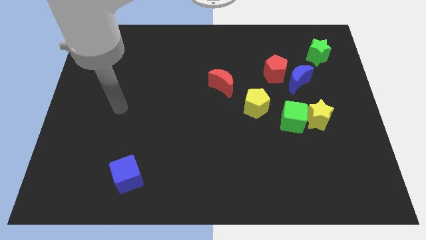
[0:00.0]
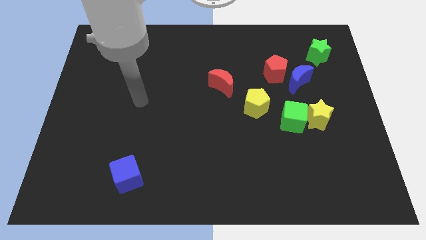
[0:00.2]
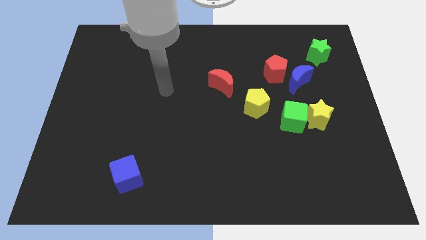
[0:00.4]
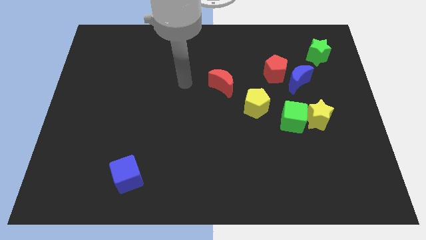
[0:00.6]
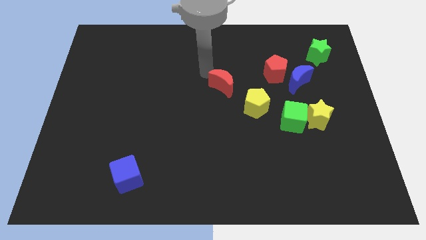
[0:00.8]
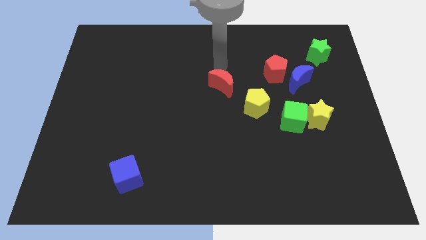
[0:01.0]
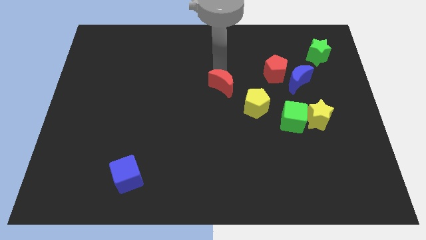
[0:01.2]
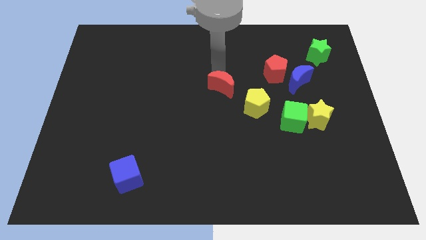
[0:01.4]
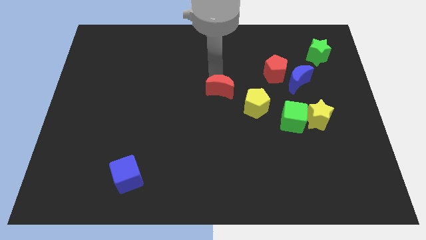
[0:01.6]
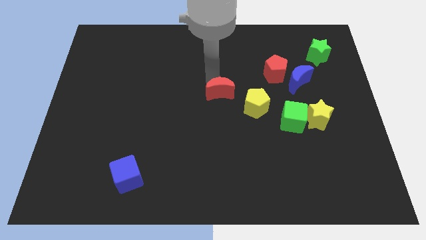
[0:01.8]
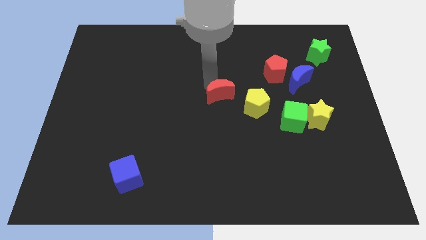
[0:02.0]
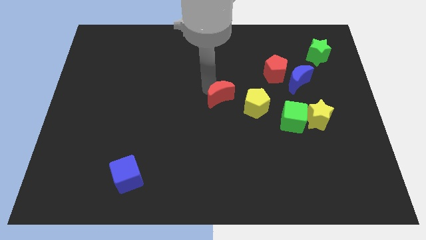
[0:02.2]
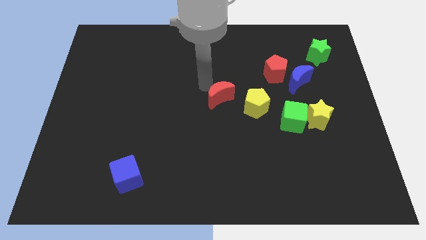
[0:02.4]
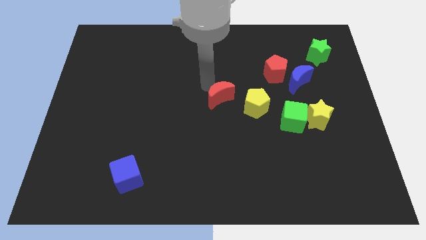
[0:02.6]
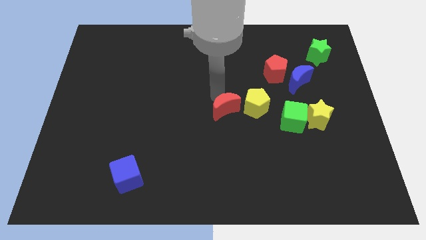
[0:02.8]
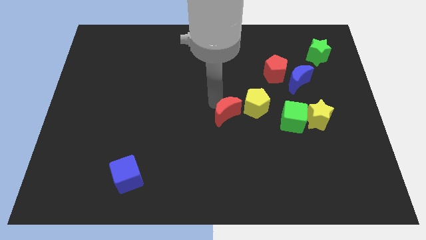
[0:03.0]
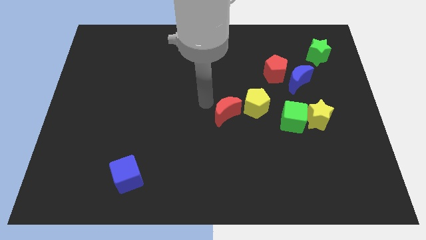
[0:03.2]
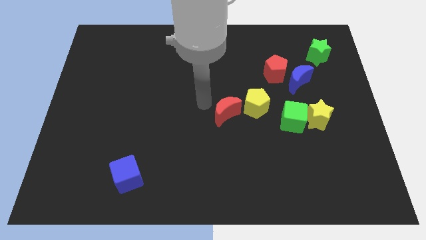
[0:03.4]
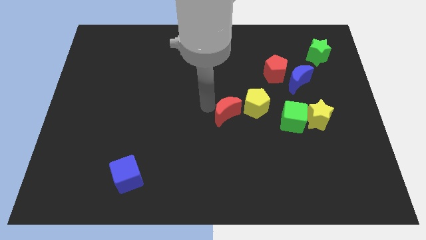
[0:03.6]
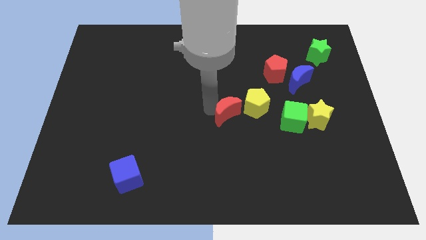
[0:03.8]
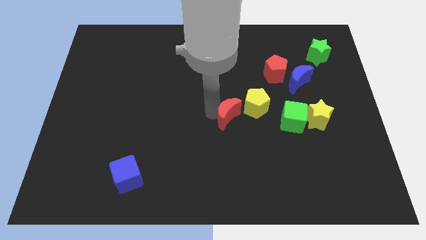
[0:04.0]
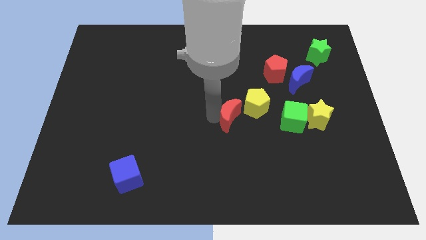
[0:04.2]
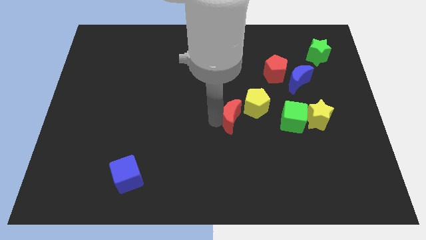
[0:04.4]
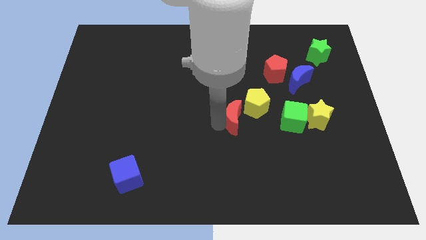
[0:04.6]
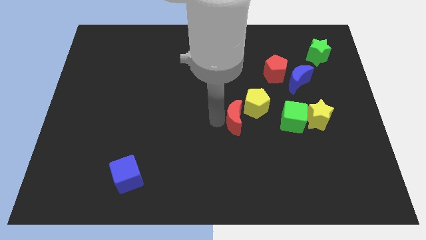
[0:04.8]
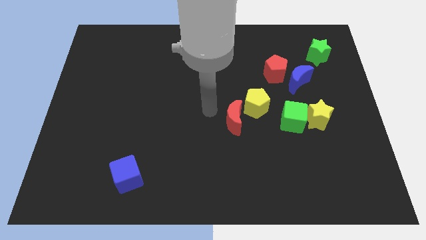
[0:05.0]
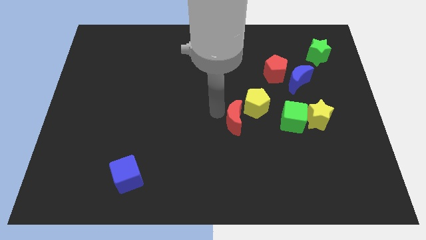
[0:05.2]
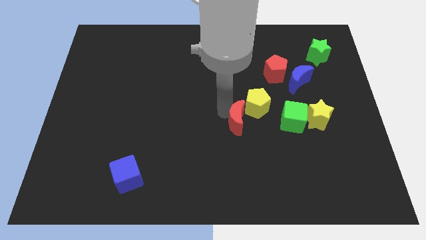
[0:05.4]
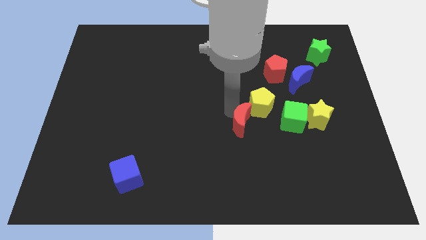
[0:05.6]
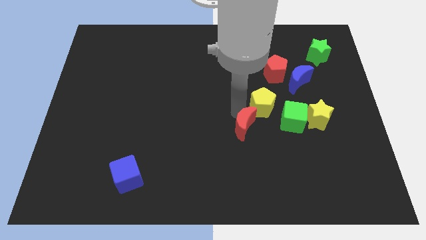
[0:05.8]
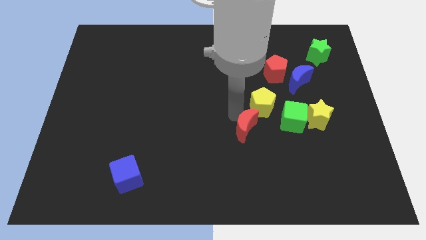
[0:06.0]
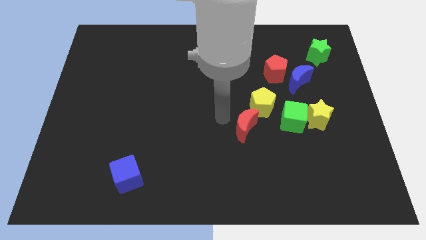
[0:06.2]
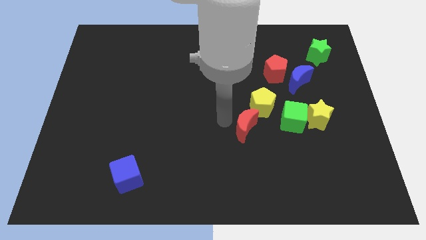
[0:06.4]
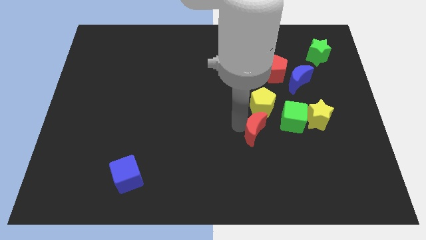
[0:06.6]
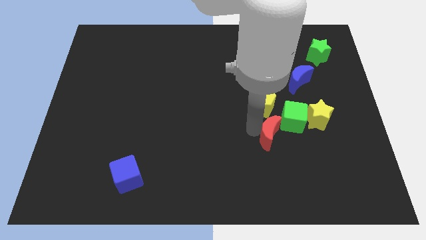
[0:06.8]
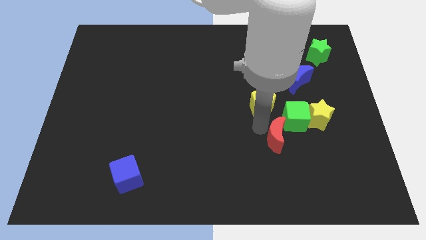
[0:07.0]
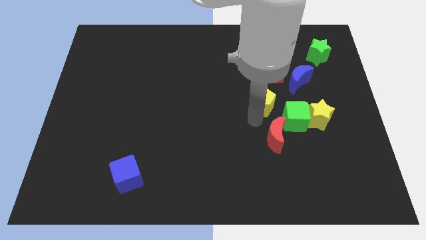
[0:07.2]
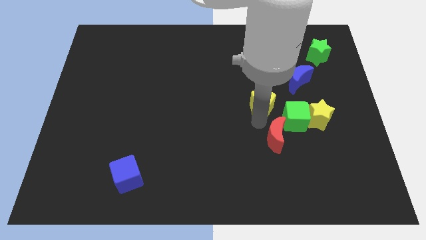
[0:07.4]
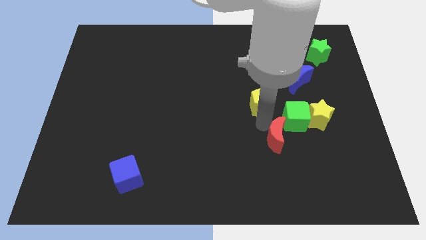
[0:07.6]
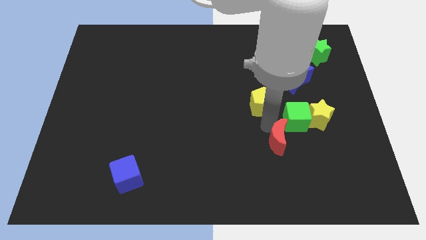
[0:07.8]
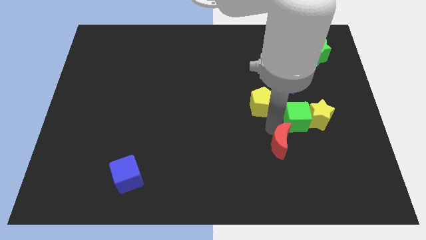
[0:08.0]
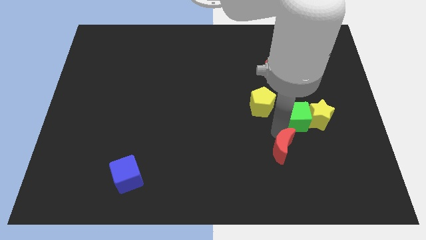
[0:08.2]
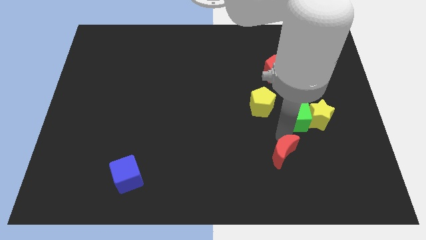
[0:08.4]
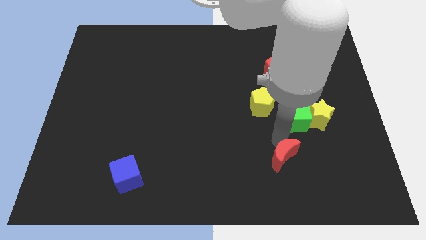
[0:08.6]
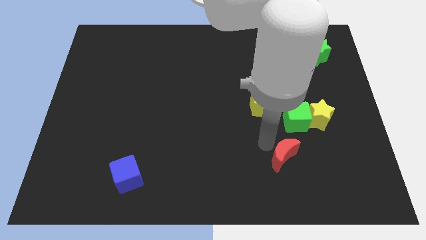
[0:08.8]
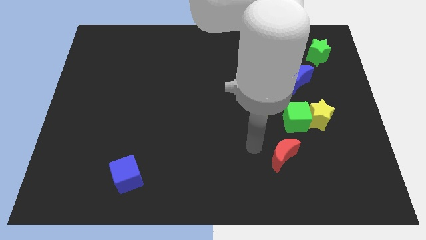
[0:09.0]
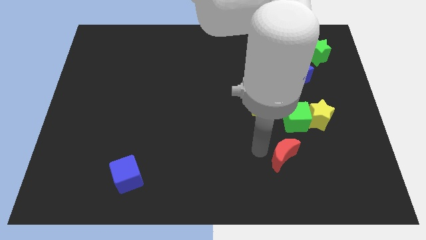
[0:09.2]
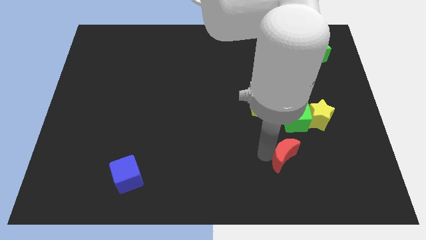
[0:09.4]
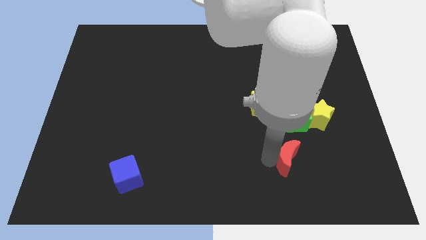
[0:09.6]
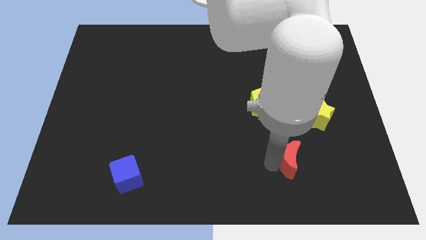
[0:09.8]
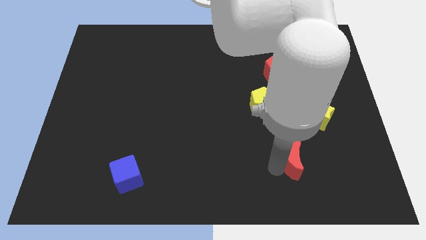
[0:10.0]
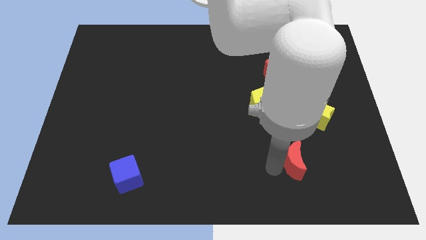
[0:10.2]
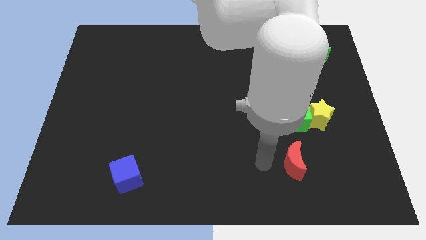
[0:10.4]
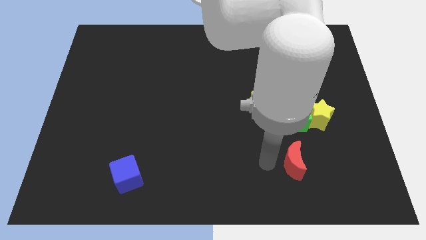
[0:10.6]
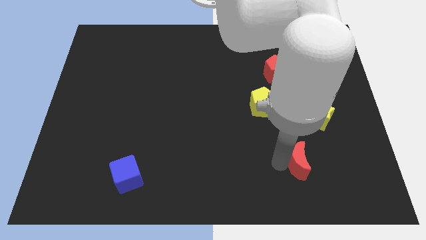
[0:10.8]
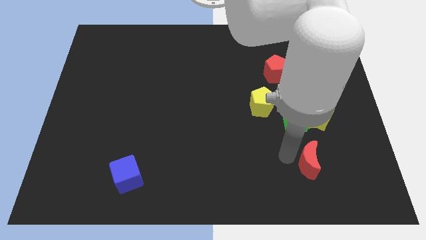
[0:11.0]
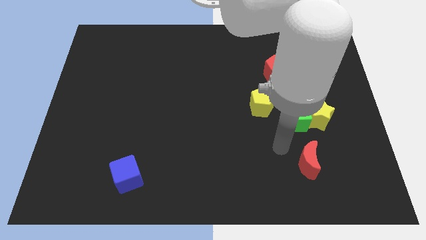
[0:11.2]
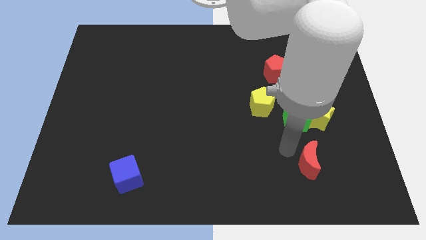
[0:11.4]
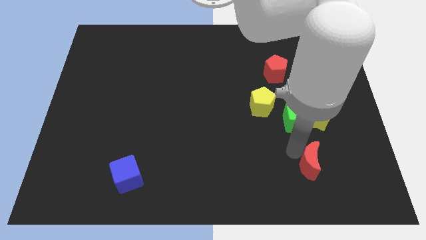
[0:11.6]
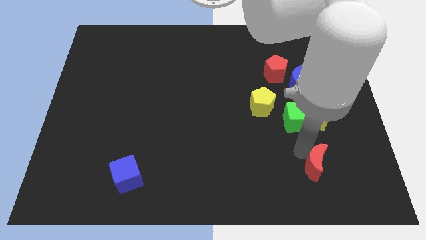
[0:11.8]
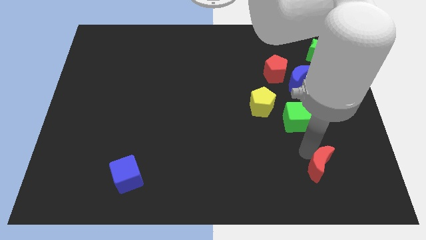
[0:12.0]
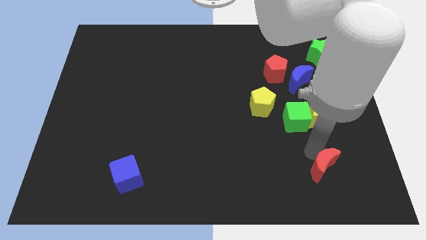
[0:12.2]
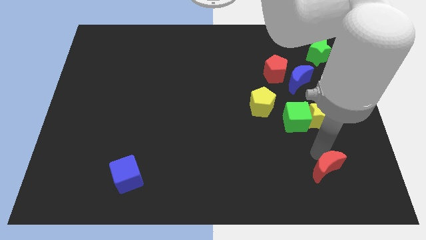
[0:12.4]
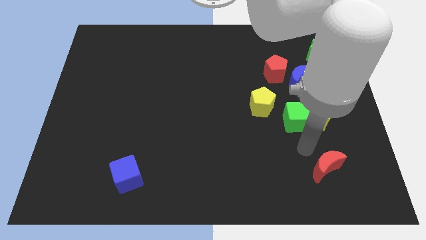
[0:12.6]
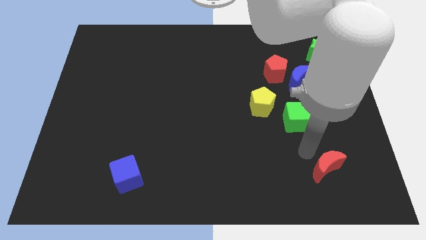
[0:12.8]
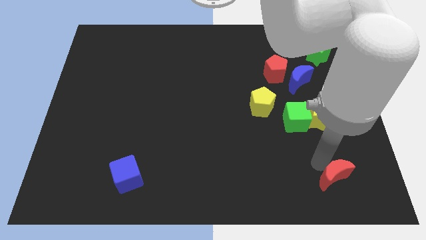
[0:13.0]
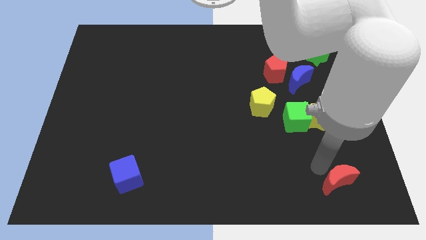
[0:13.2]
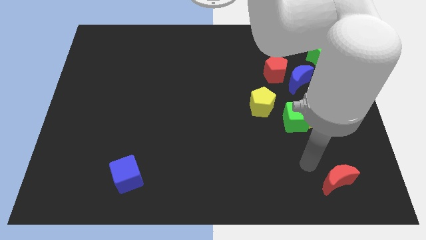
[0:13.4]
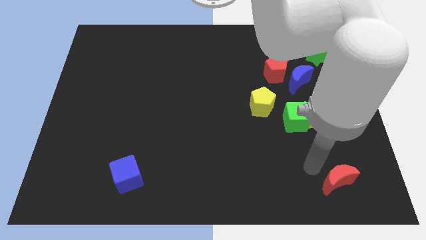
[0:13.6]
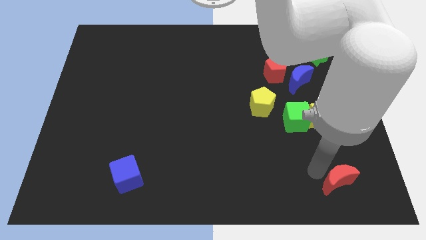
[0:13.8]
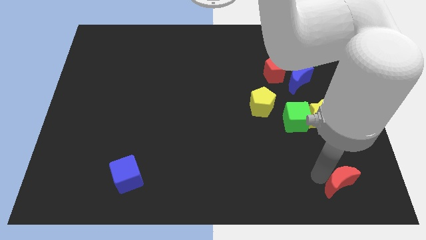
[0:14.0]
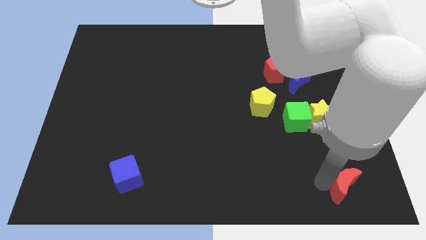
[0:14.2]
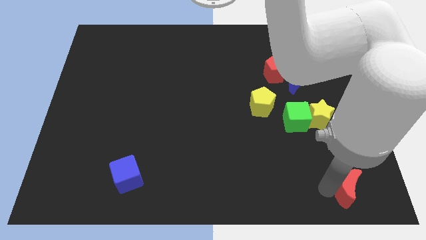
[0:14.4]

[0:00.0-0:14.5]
push the red moon to the bottom right corner
